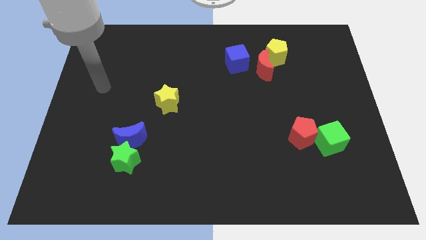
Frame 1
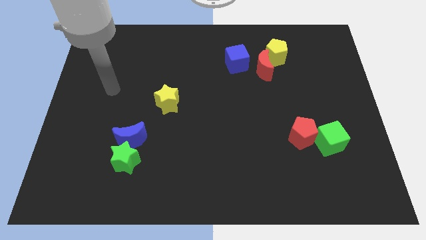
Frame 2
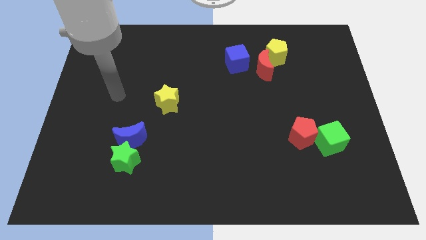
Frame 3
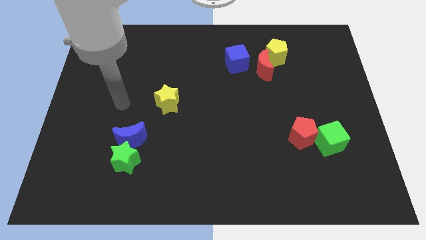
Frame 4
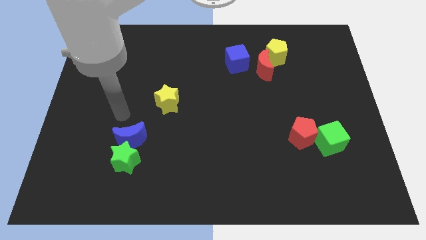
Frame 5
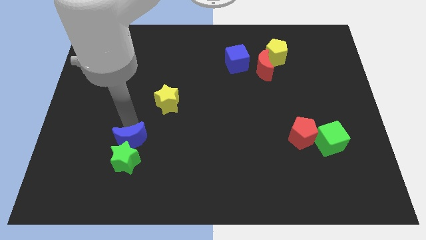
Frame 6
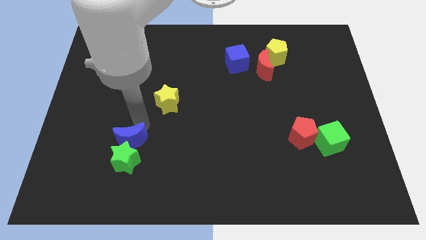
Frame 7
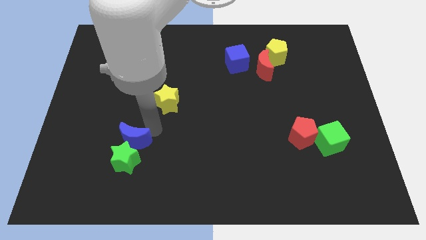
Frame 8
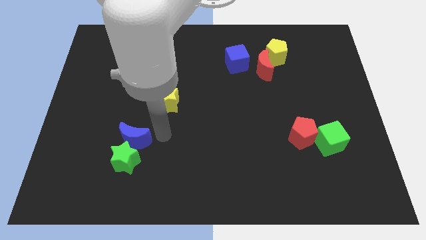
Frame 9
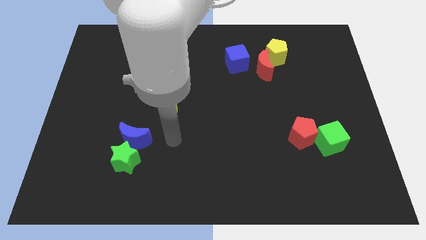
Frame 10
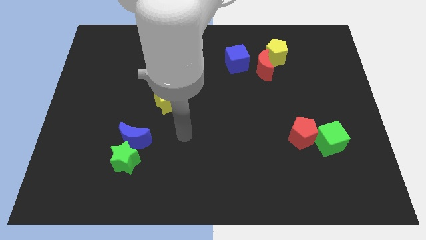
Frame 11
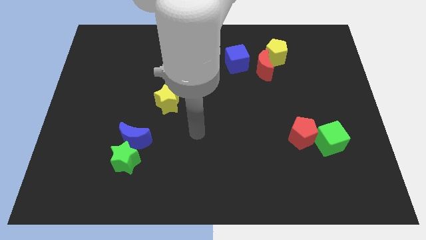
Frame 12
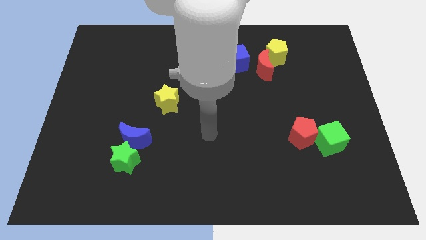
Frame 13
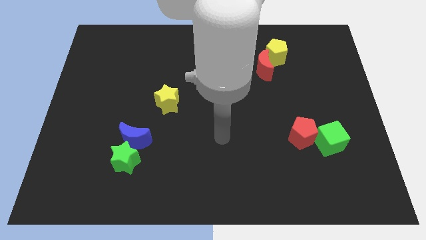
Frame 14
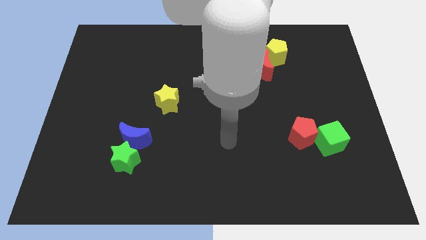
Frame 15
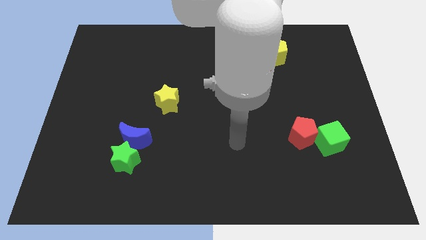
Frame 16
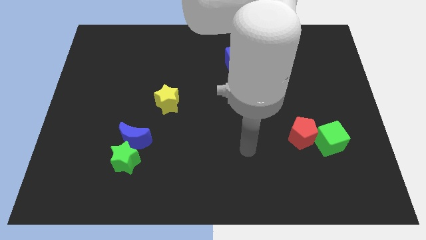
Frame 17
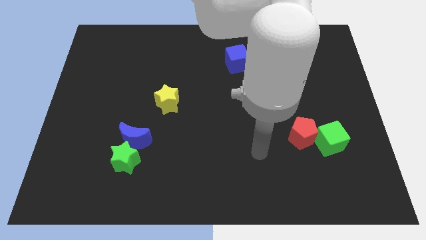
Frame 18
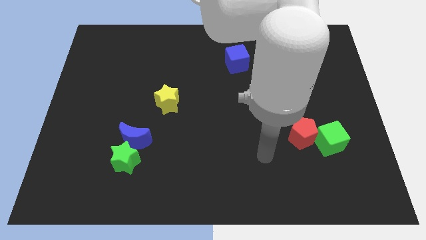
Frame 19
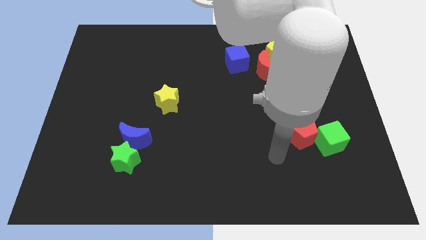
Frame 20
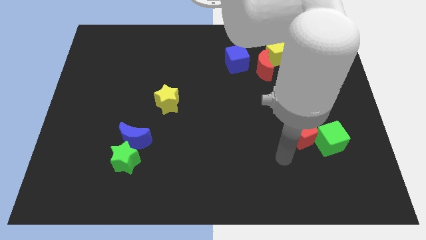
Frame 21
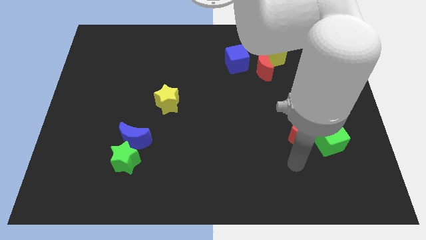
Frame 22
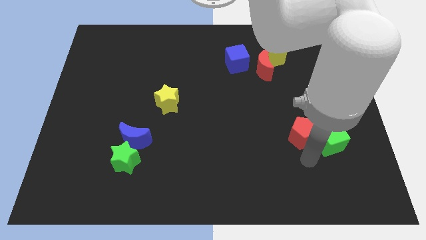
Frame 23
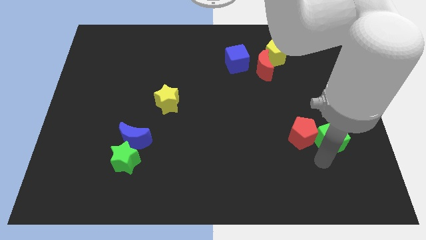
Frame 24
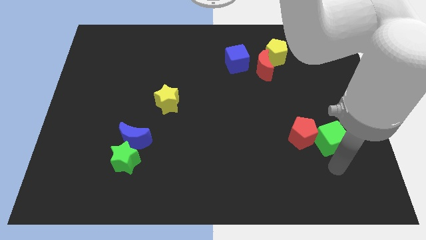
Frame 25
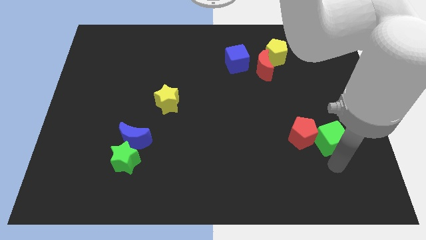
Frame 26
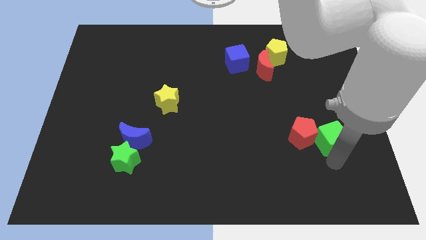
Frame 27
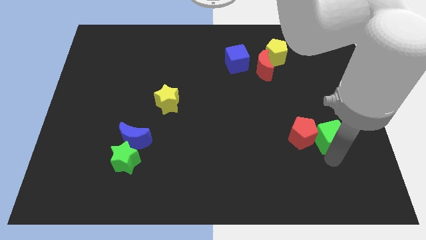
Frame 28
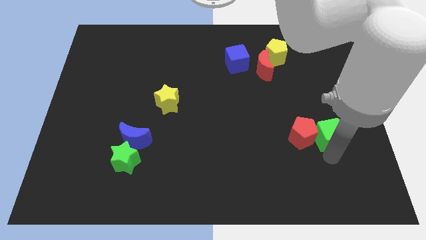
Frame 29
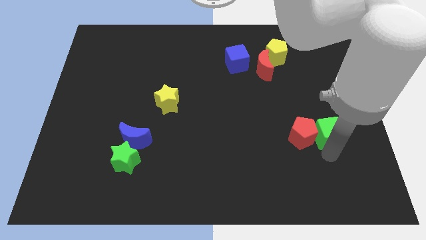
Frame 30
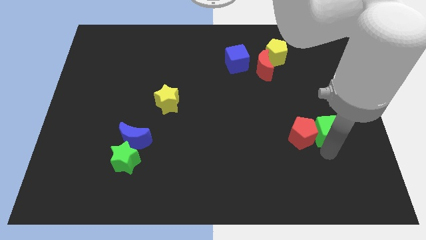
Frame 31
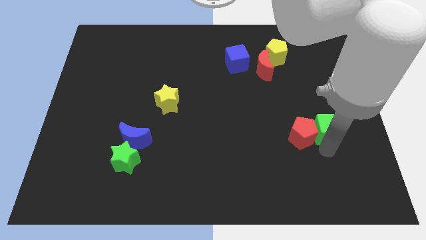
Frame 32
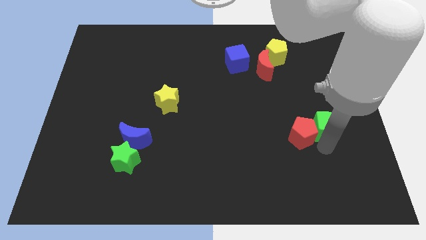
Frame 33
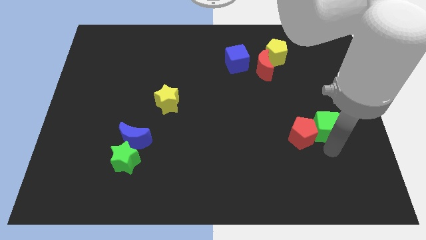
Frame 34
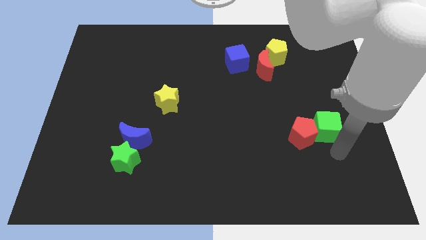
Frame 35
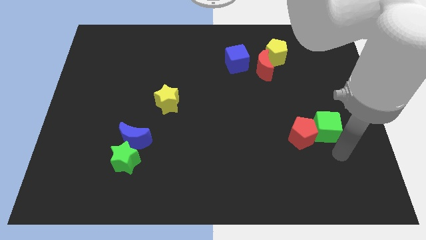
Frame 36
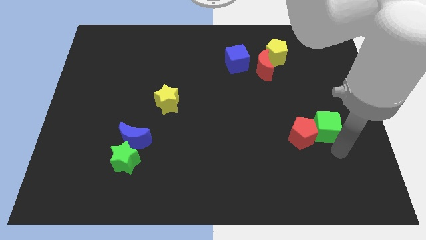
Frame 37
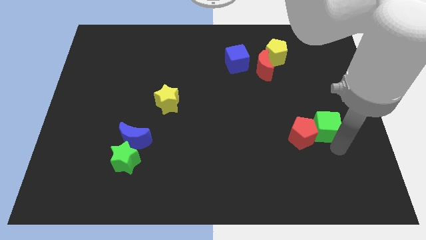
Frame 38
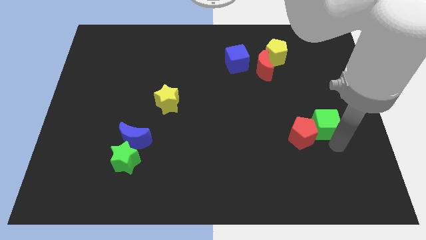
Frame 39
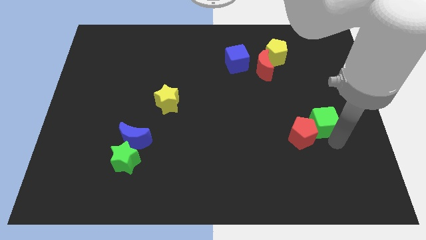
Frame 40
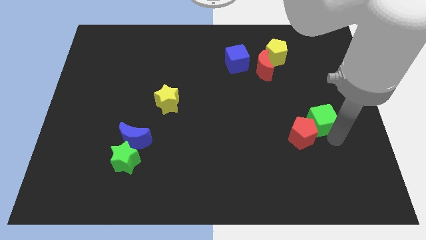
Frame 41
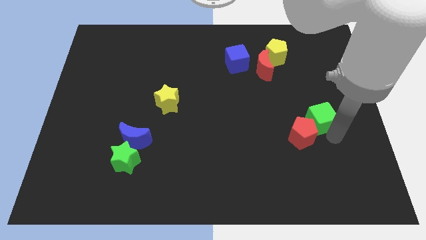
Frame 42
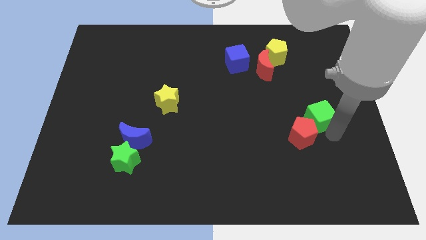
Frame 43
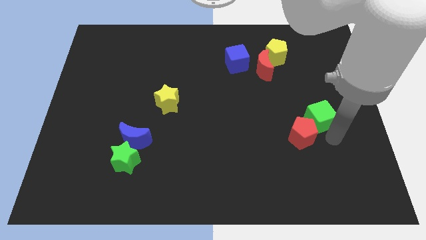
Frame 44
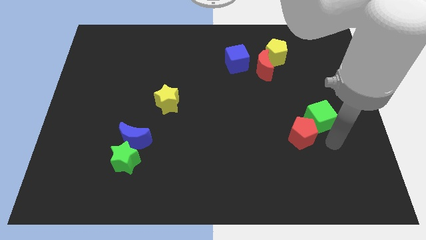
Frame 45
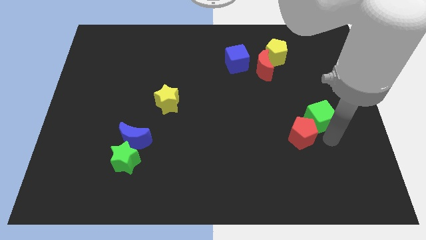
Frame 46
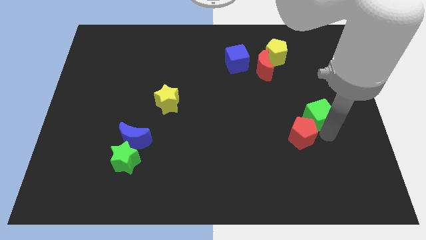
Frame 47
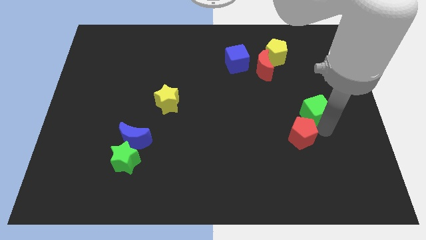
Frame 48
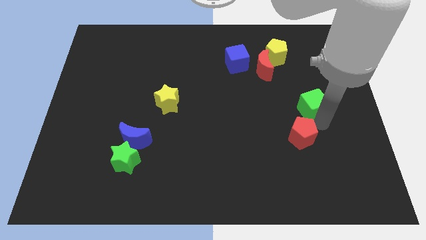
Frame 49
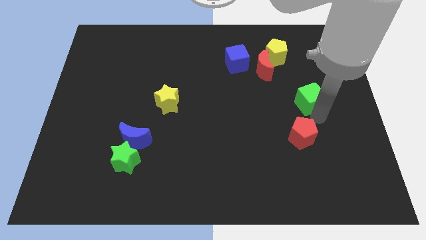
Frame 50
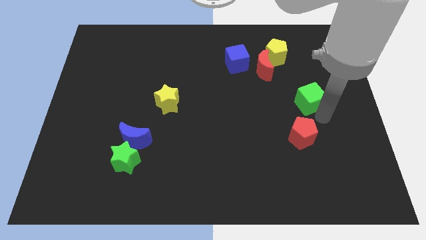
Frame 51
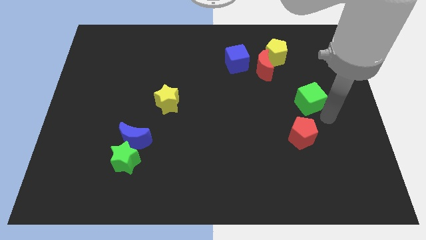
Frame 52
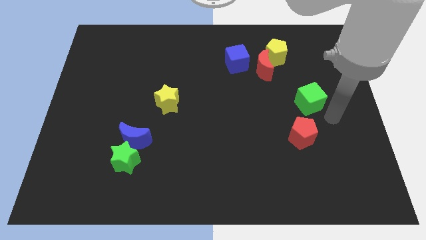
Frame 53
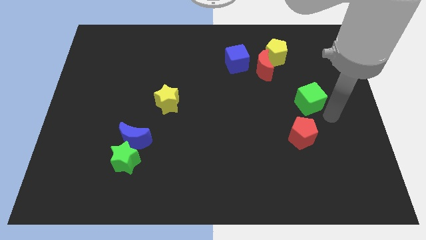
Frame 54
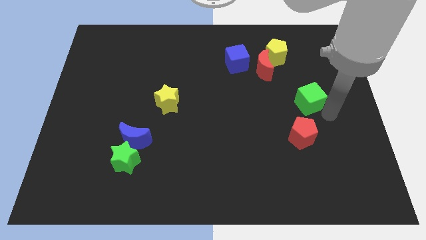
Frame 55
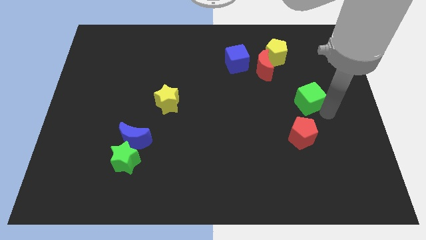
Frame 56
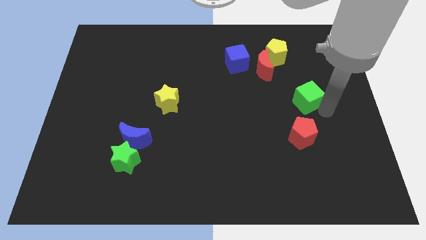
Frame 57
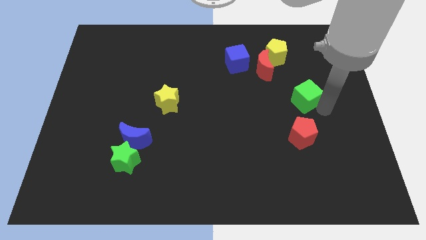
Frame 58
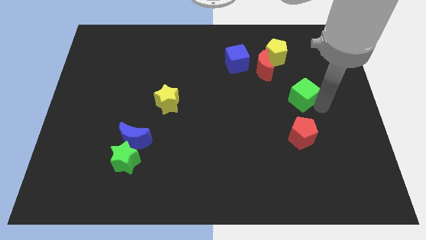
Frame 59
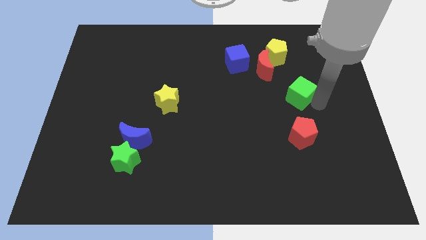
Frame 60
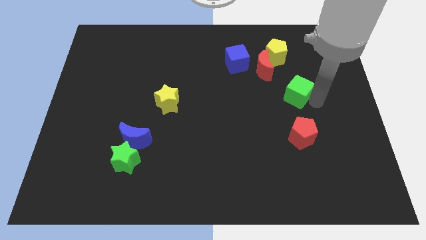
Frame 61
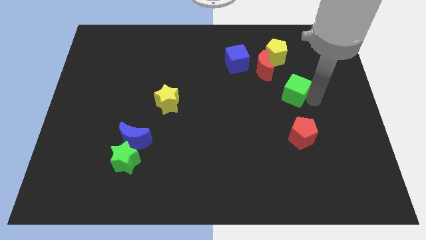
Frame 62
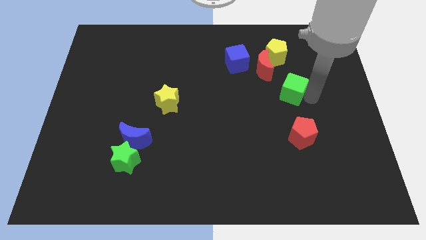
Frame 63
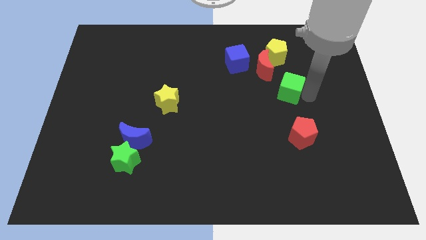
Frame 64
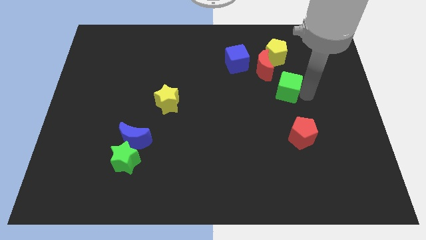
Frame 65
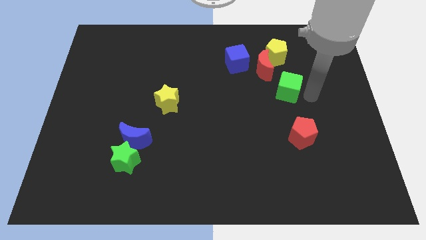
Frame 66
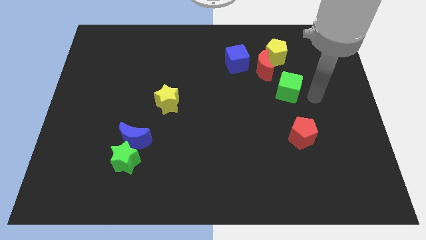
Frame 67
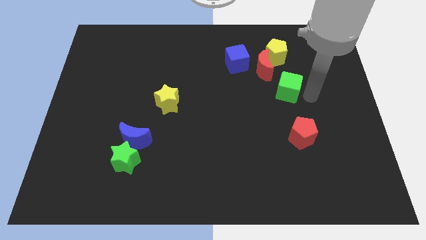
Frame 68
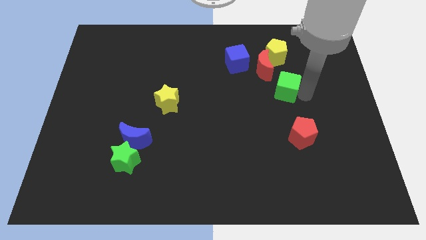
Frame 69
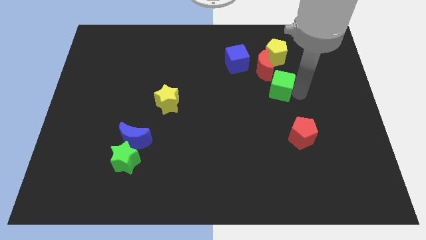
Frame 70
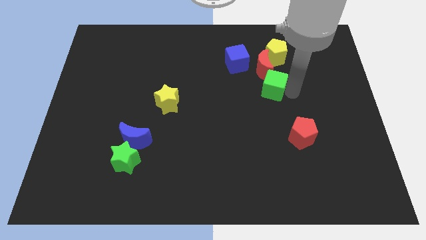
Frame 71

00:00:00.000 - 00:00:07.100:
slide the green cube to the bottom right of the blue cube
